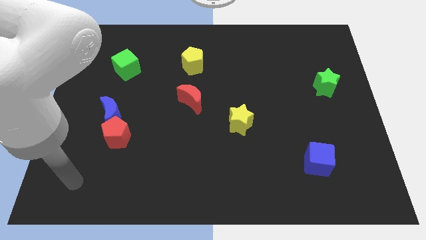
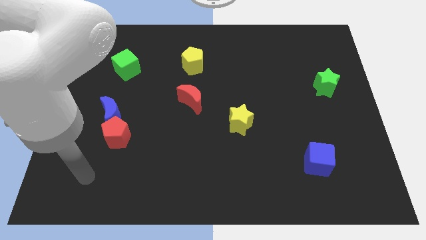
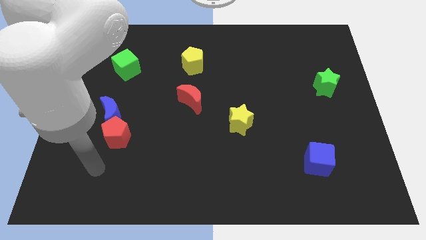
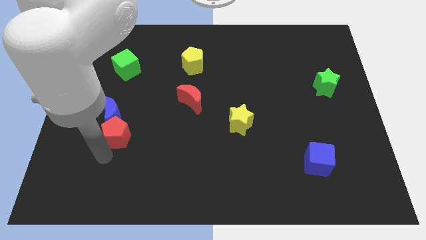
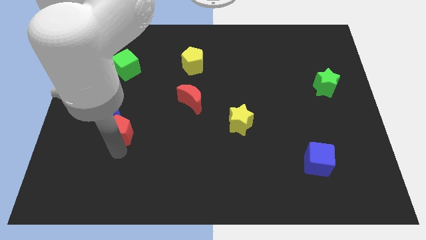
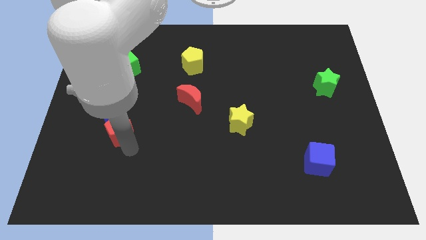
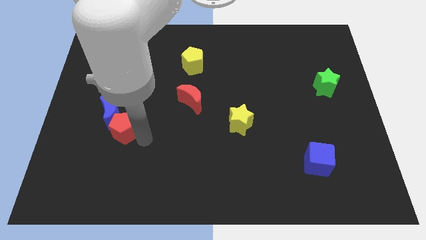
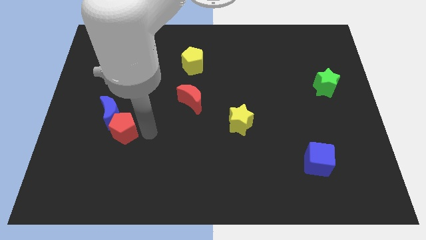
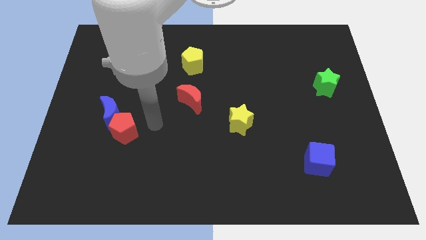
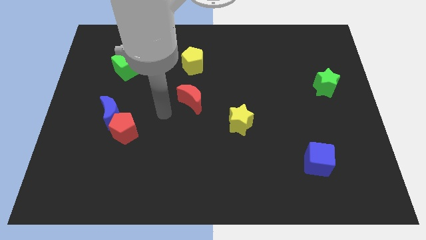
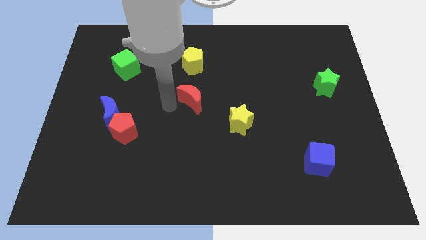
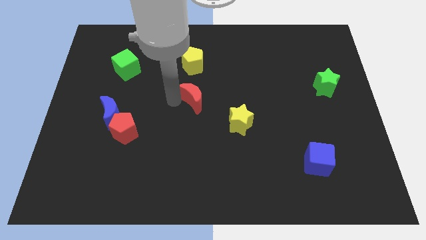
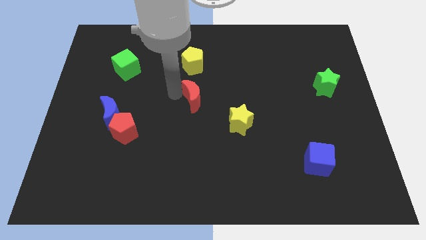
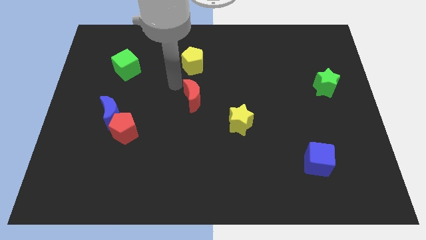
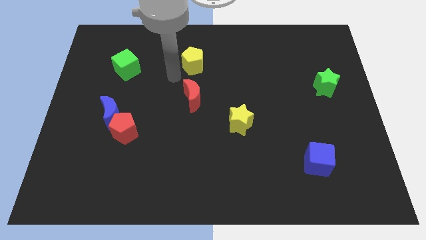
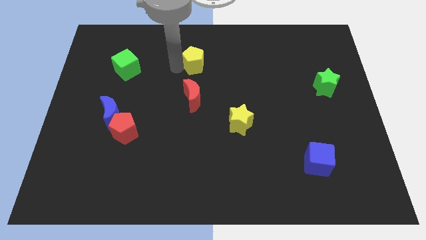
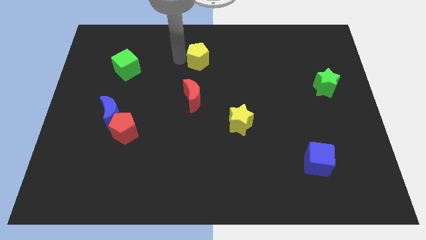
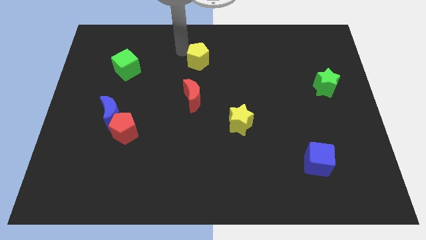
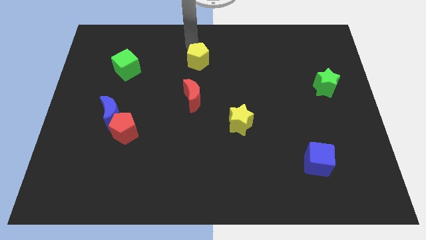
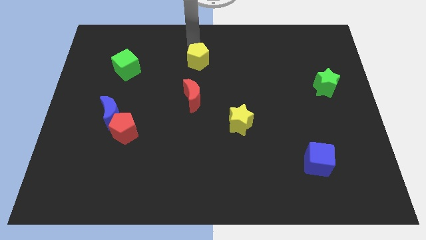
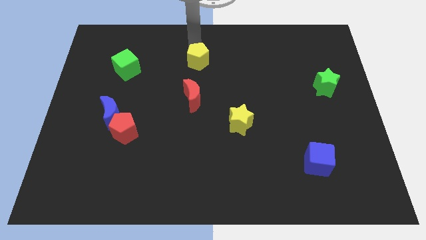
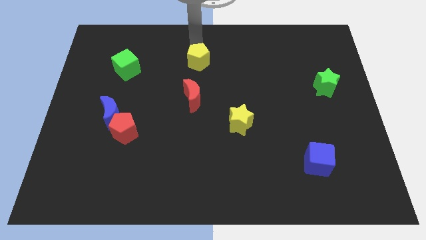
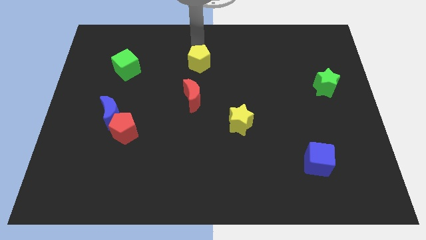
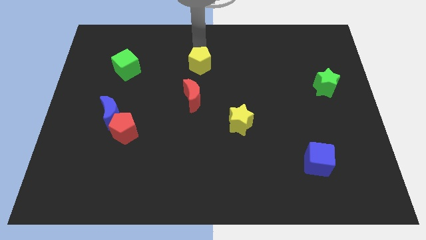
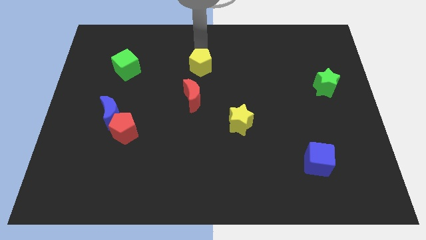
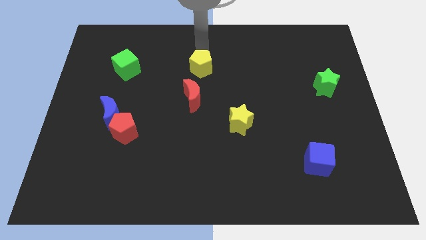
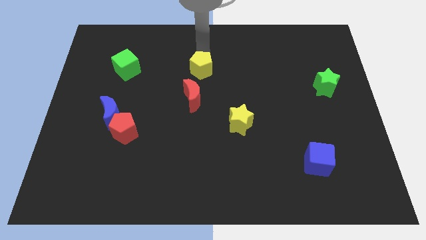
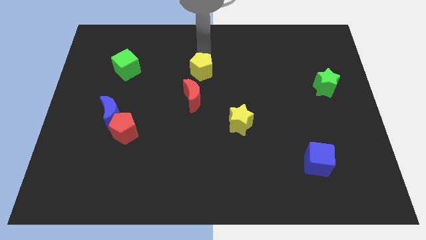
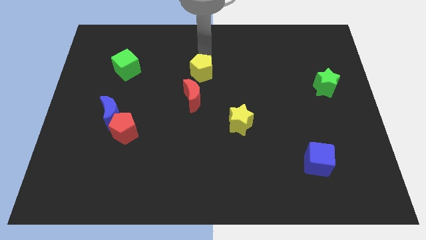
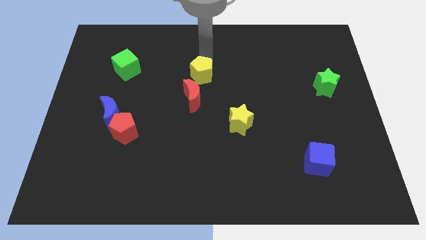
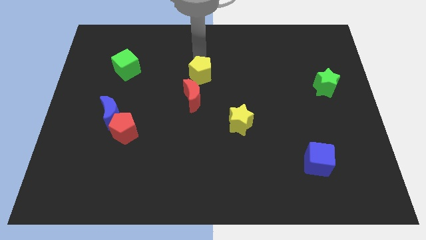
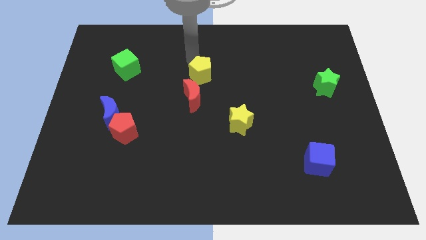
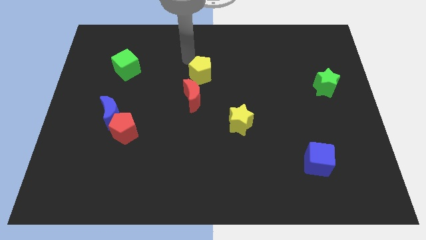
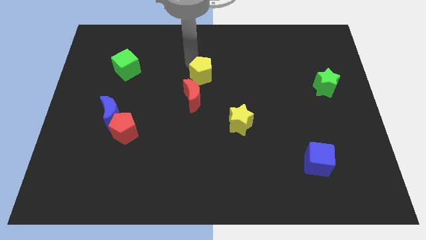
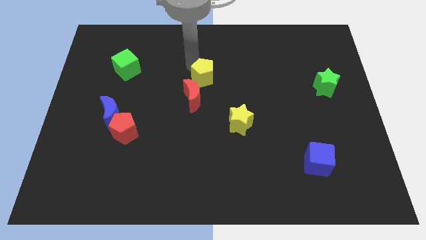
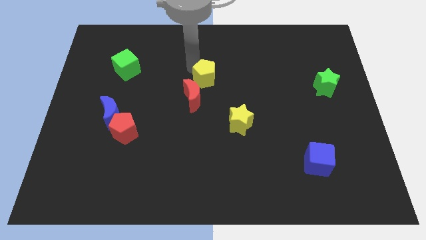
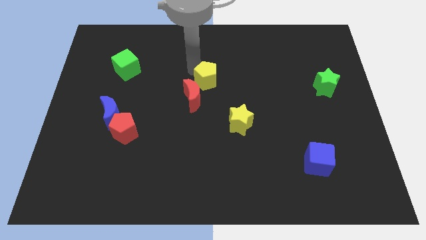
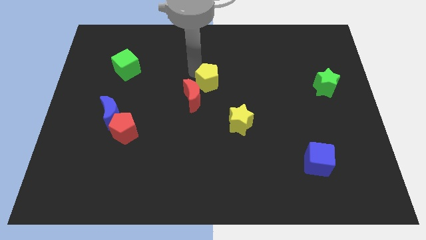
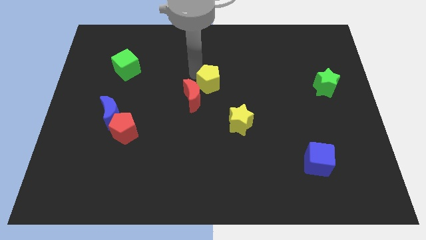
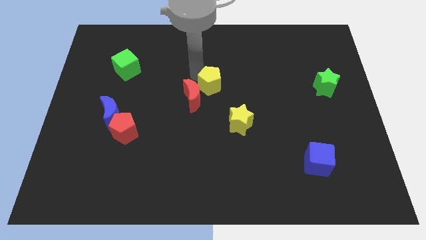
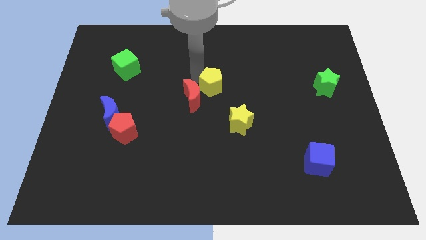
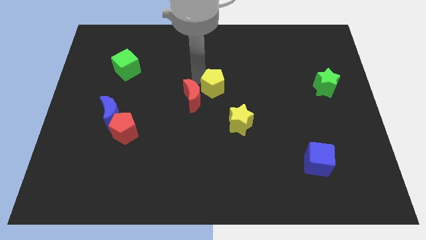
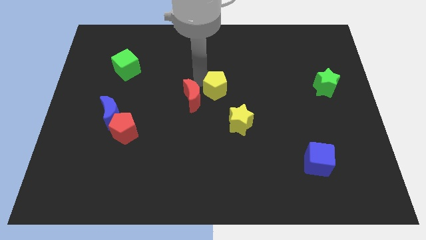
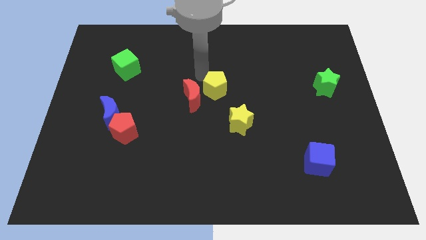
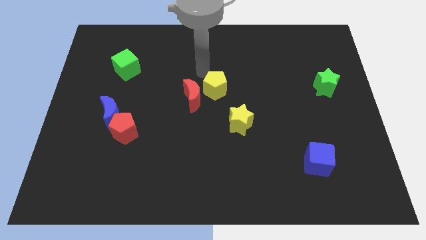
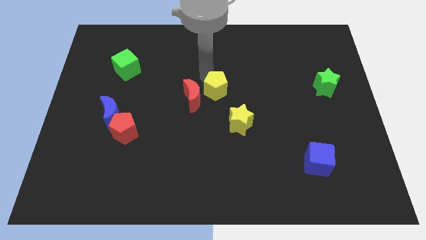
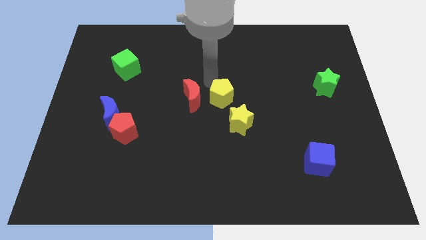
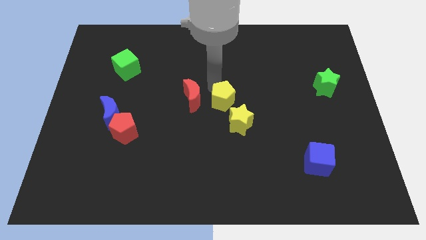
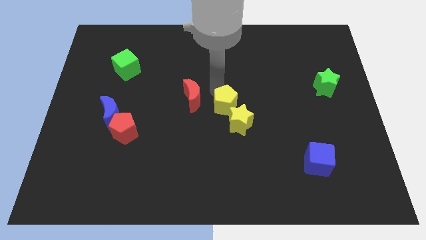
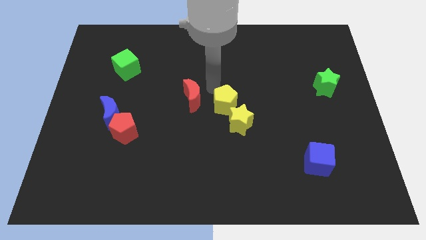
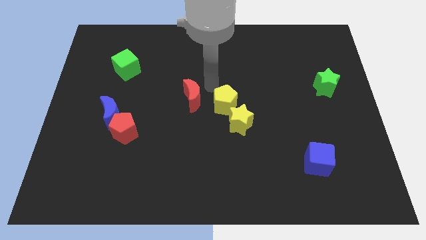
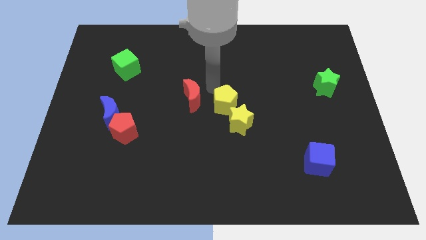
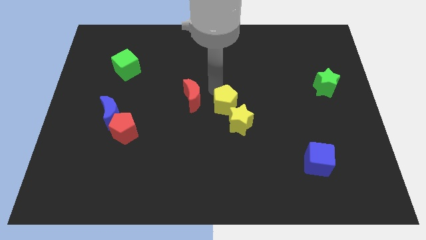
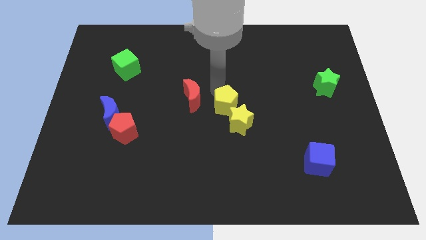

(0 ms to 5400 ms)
push the yellow pentagon to the yellow star

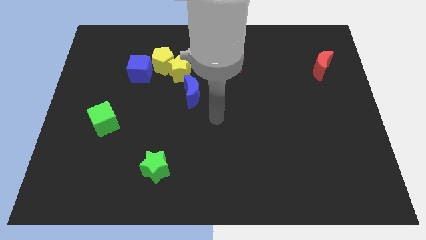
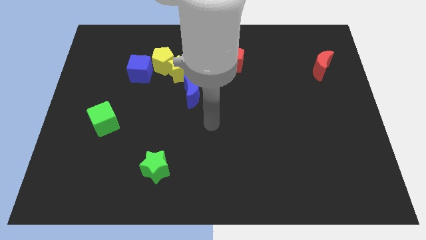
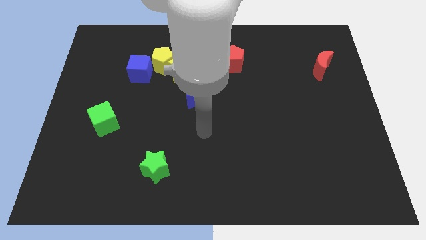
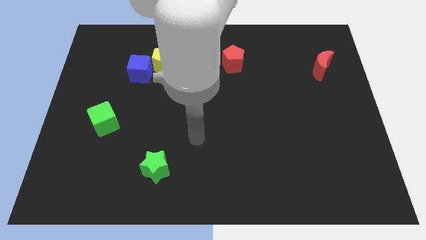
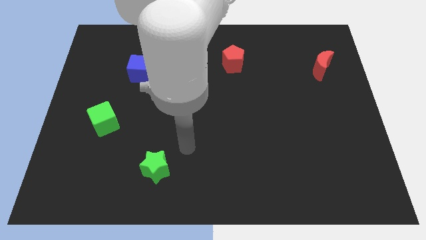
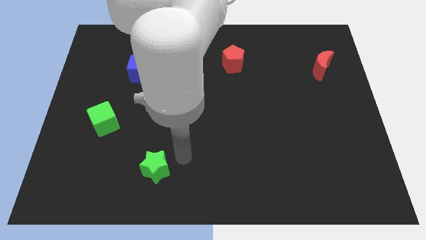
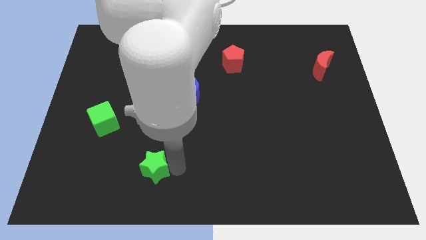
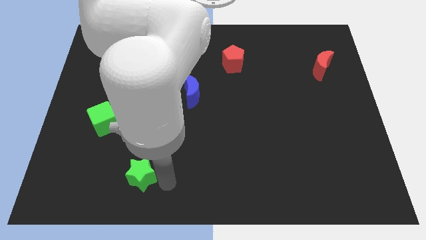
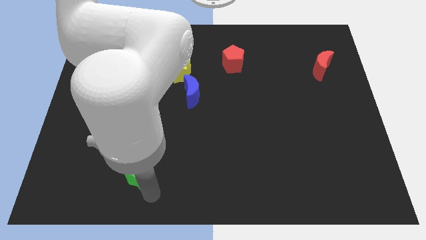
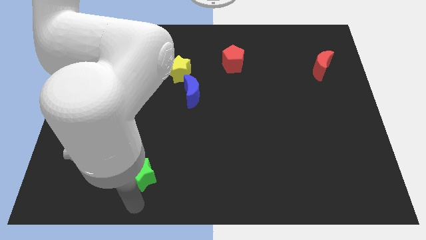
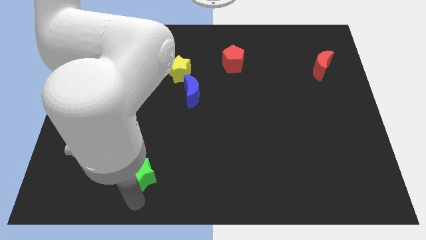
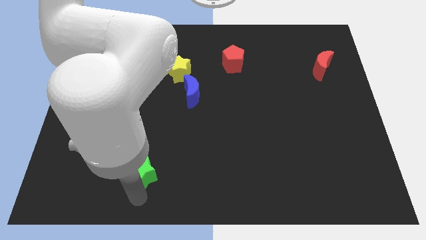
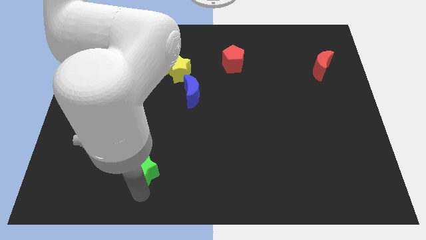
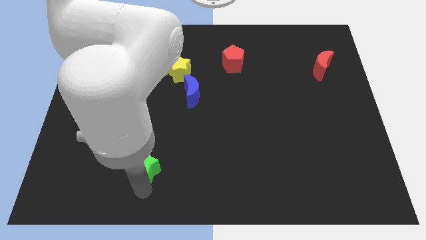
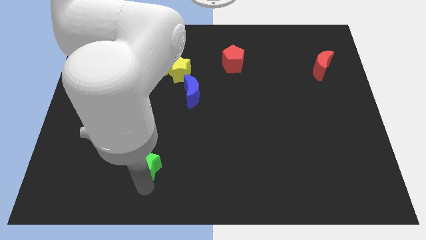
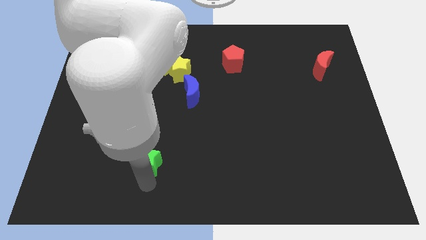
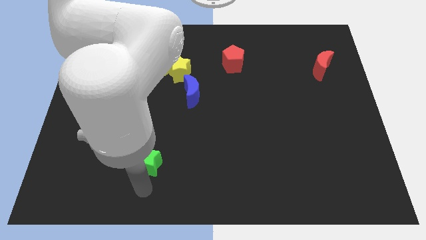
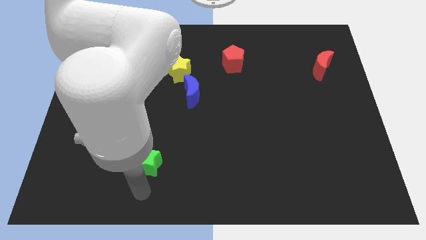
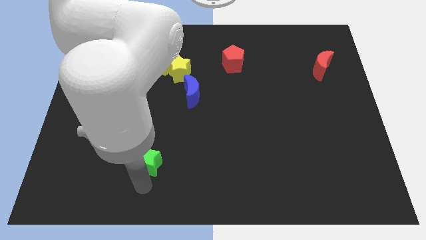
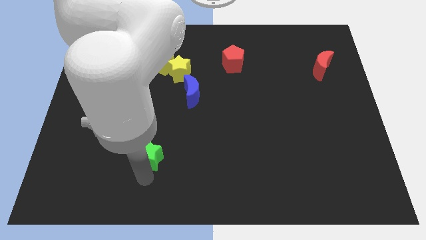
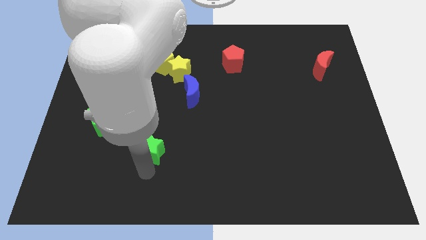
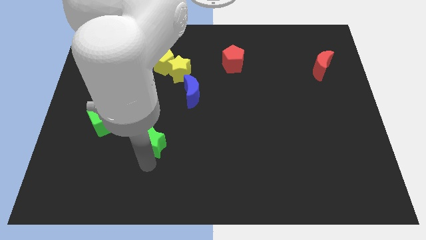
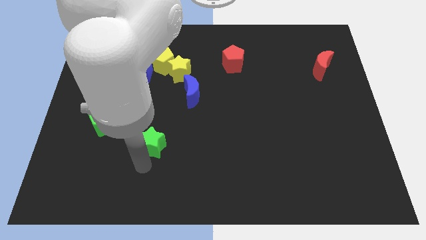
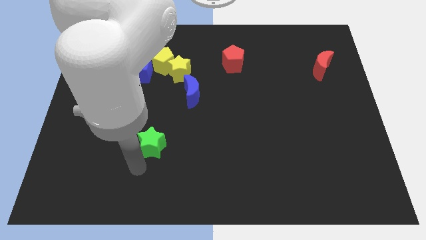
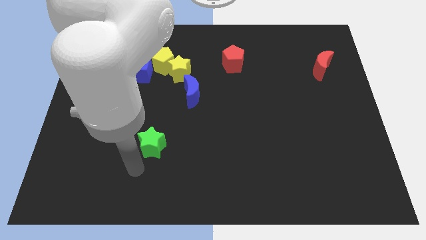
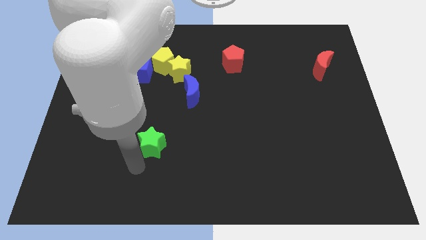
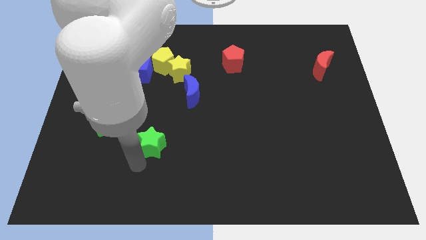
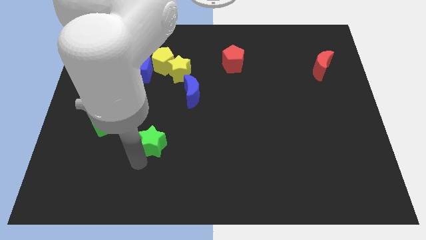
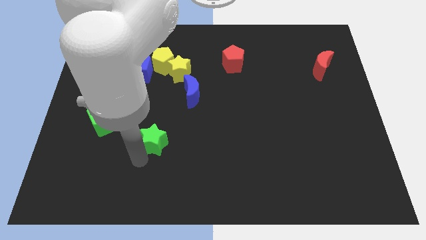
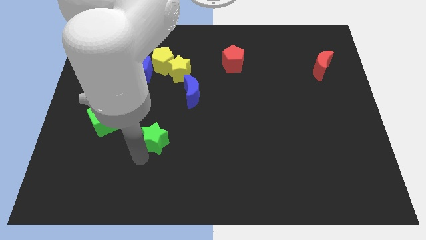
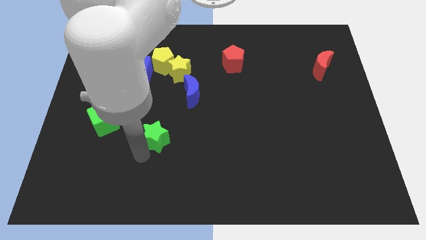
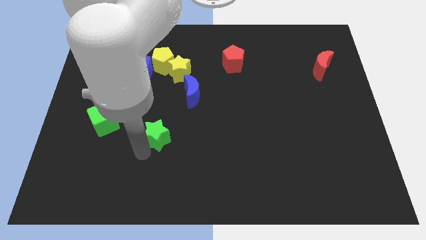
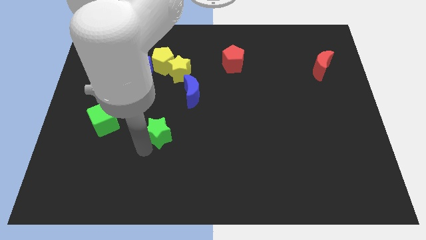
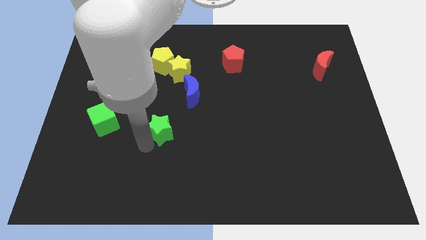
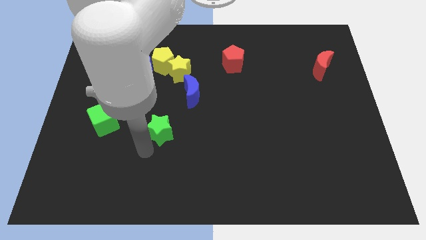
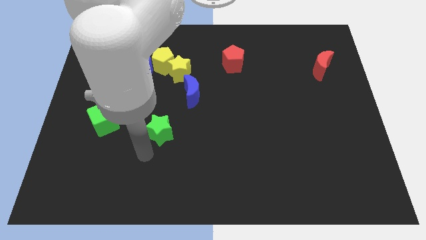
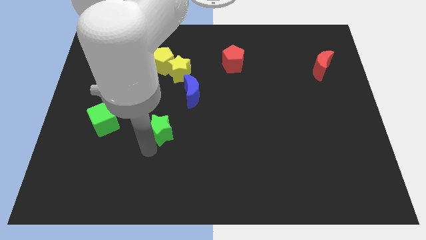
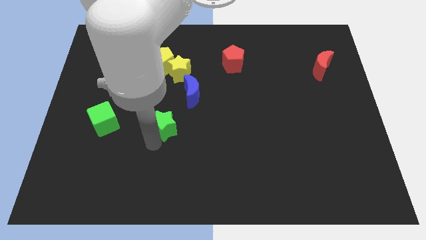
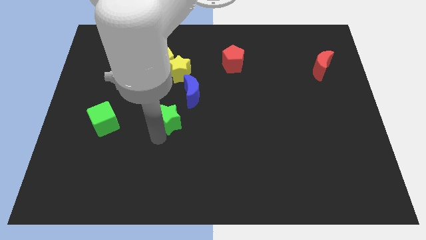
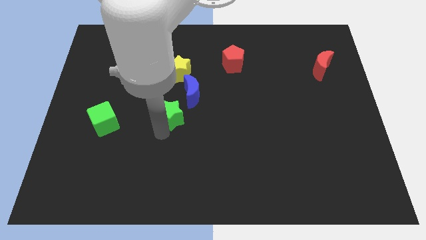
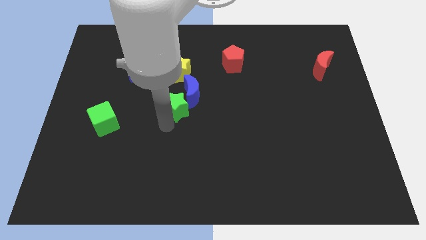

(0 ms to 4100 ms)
move the green star towards the blue moon
